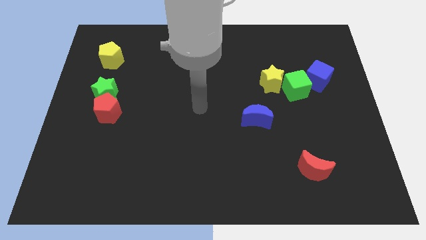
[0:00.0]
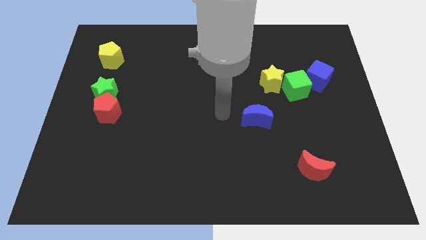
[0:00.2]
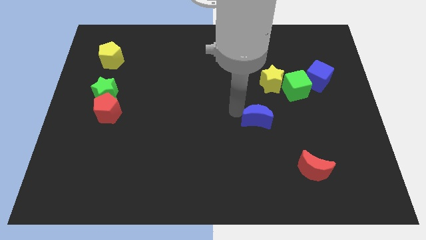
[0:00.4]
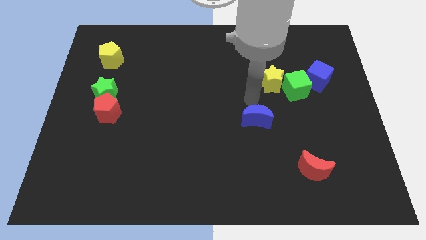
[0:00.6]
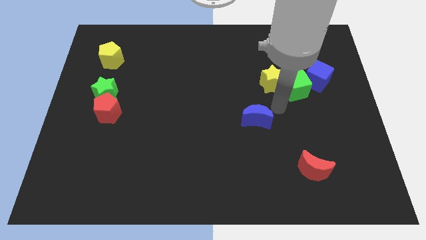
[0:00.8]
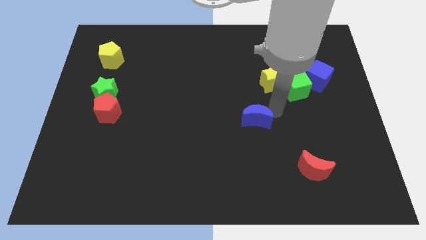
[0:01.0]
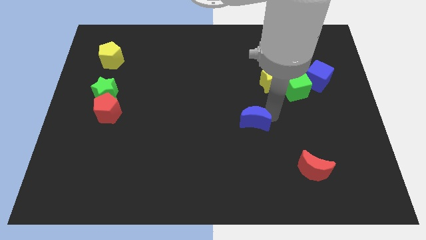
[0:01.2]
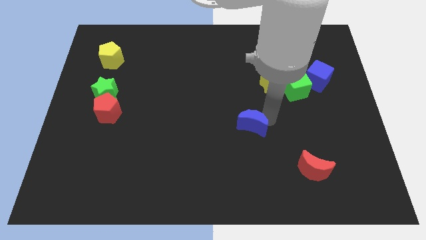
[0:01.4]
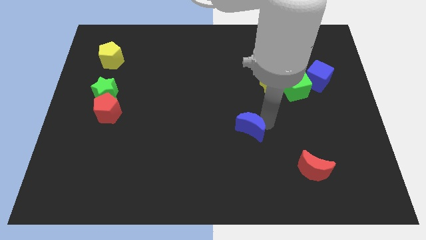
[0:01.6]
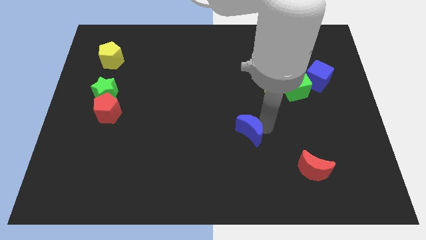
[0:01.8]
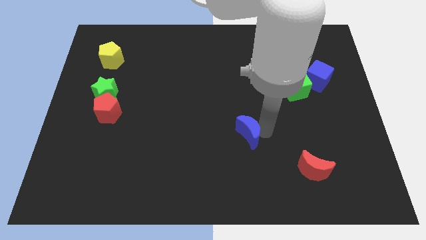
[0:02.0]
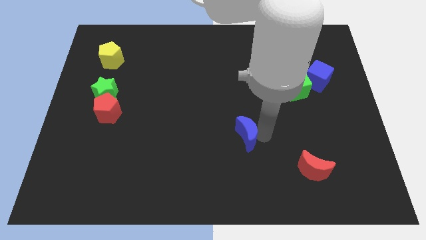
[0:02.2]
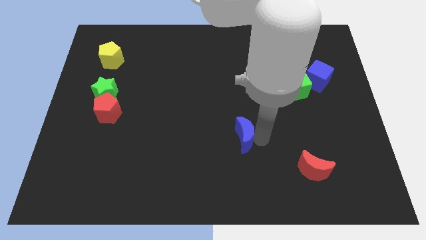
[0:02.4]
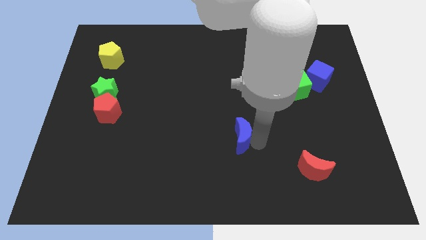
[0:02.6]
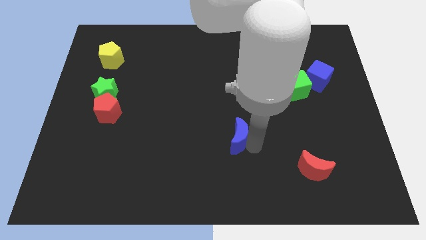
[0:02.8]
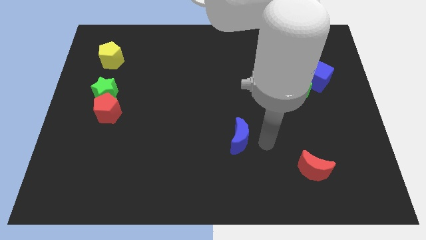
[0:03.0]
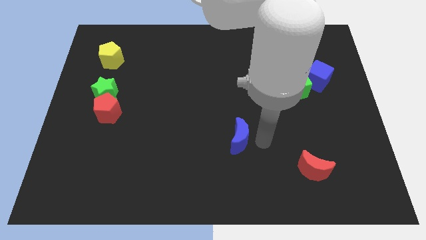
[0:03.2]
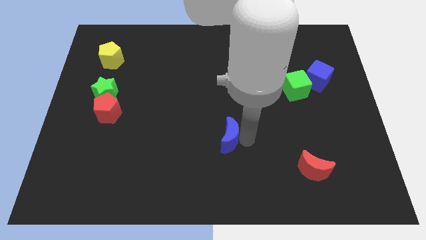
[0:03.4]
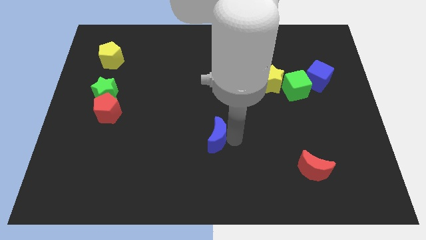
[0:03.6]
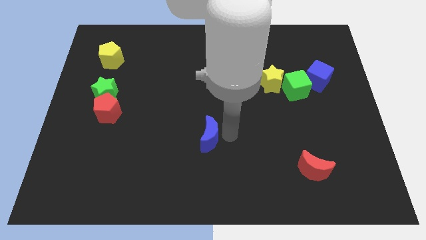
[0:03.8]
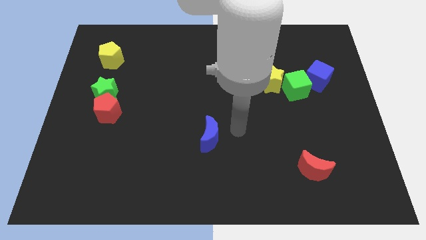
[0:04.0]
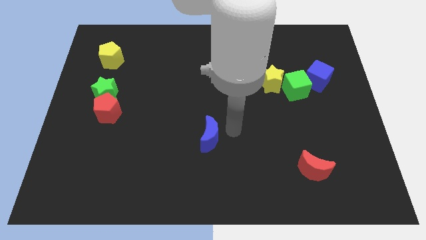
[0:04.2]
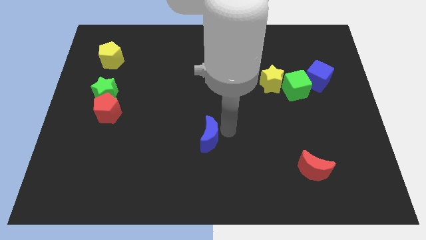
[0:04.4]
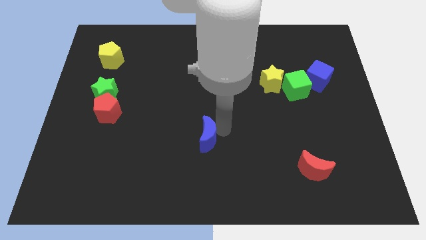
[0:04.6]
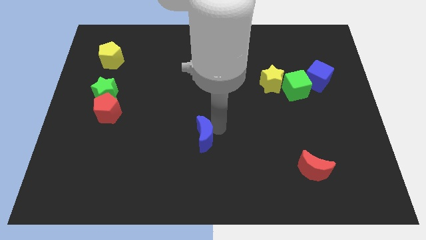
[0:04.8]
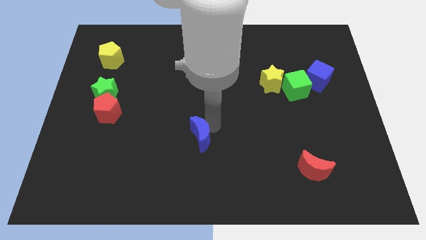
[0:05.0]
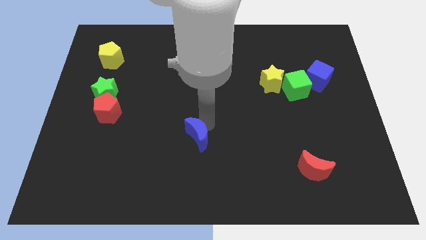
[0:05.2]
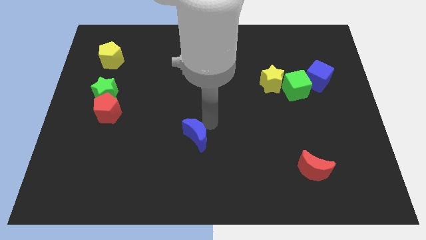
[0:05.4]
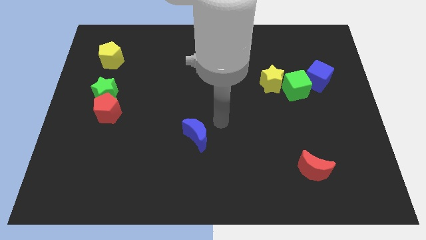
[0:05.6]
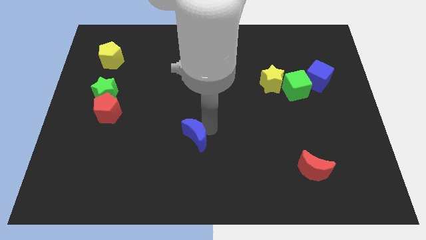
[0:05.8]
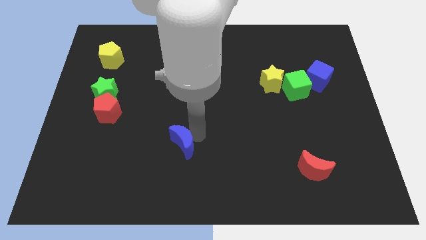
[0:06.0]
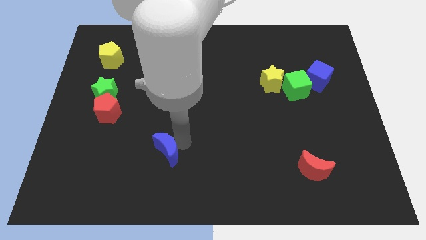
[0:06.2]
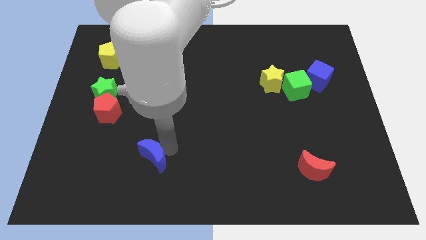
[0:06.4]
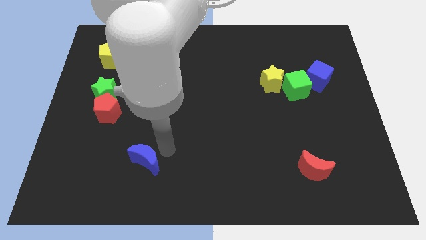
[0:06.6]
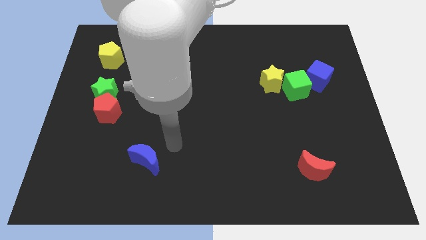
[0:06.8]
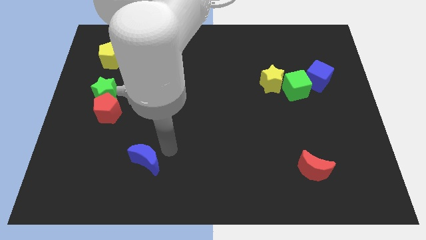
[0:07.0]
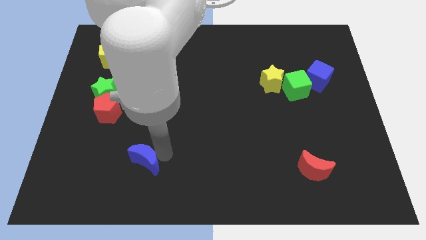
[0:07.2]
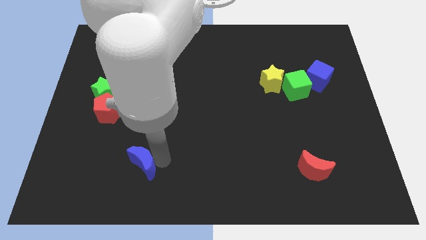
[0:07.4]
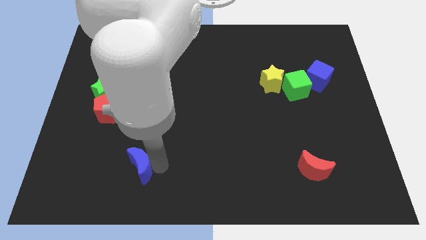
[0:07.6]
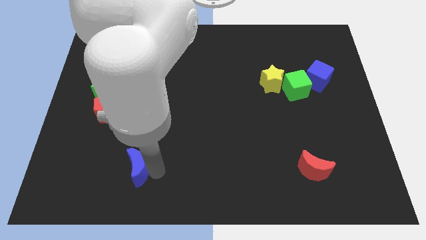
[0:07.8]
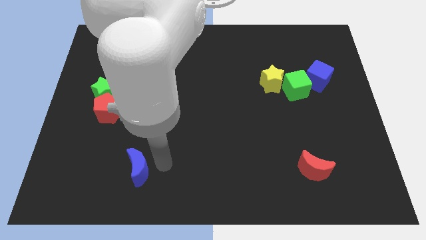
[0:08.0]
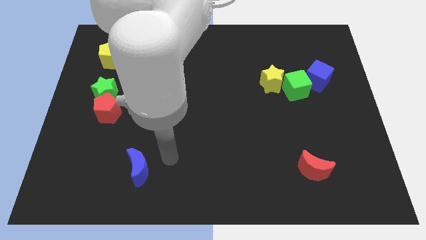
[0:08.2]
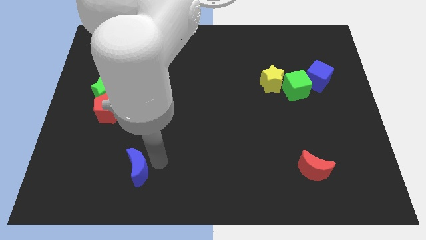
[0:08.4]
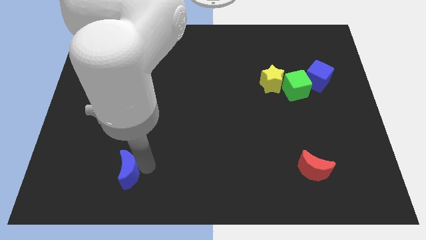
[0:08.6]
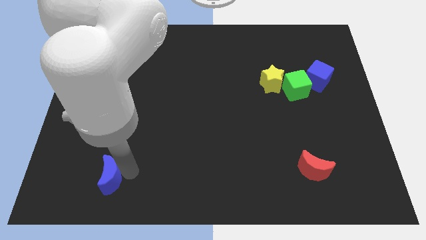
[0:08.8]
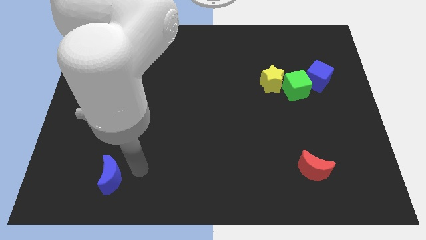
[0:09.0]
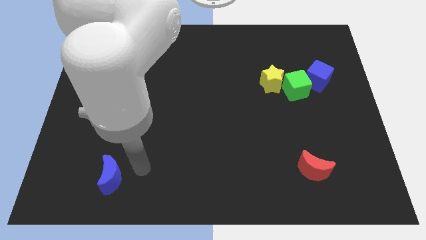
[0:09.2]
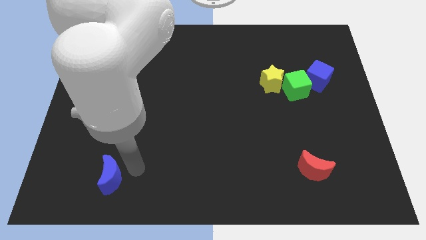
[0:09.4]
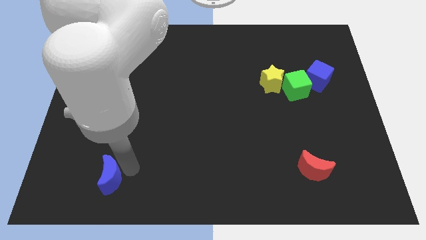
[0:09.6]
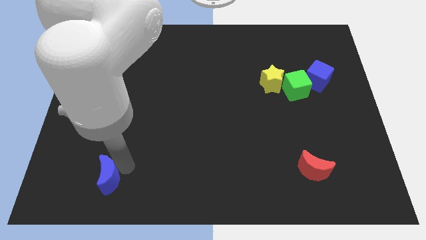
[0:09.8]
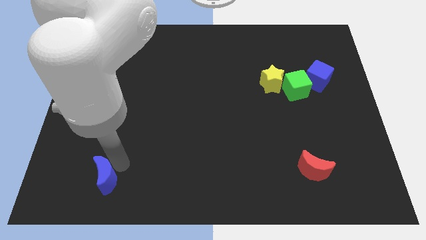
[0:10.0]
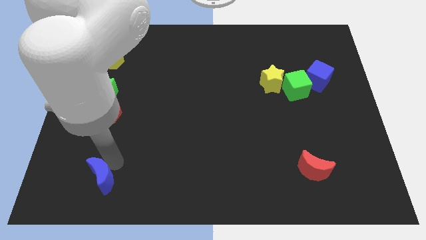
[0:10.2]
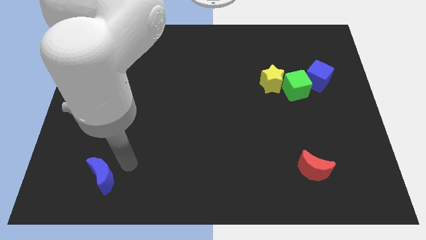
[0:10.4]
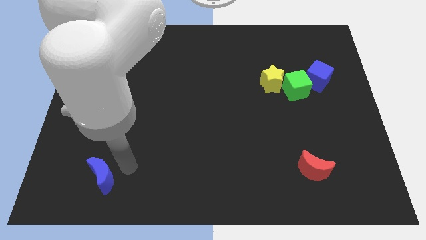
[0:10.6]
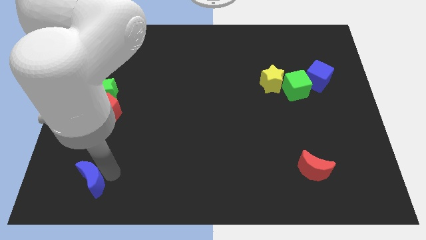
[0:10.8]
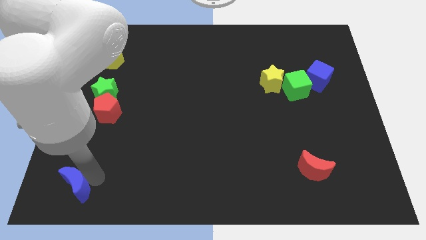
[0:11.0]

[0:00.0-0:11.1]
push the blue moon to the bottom left

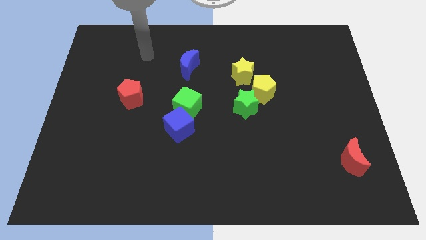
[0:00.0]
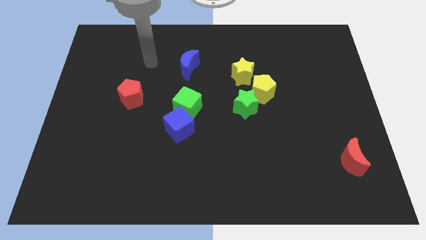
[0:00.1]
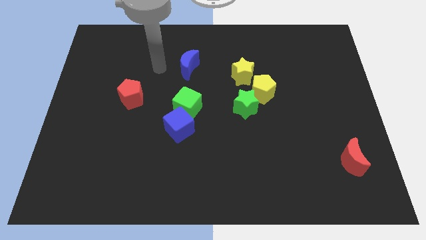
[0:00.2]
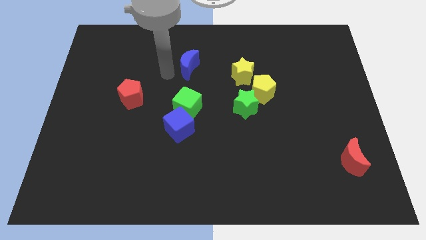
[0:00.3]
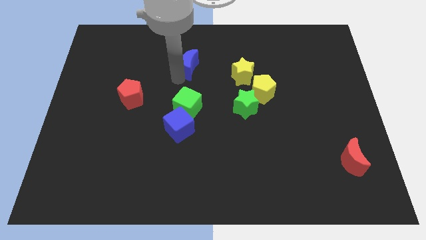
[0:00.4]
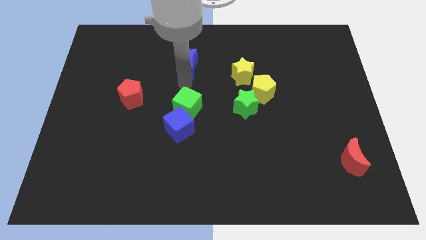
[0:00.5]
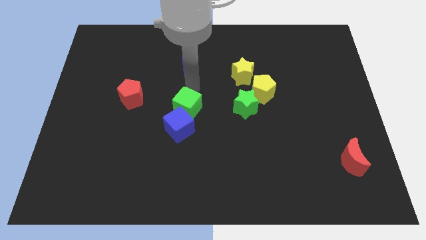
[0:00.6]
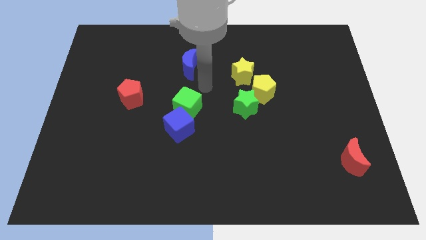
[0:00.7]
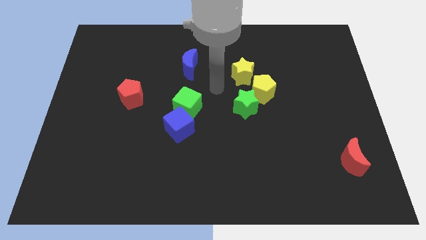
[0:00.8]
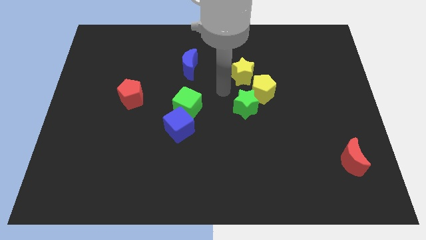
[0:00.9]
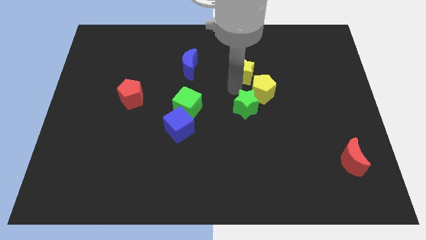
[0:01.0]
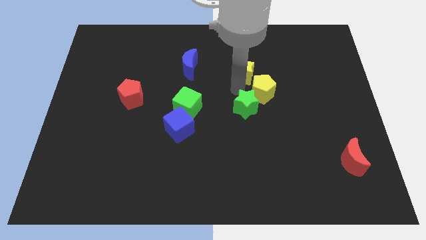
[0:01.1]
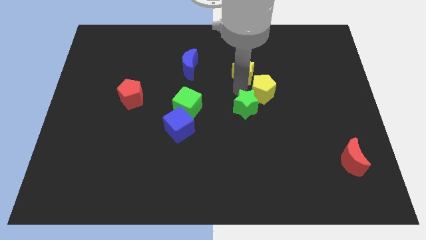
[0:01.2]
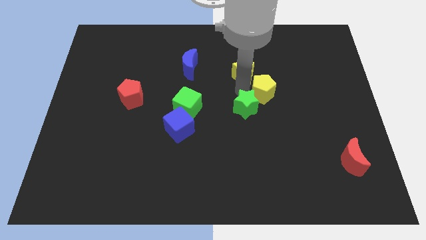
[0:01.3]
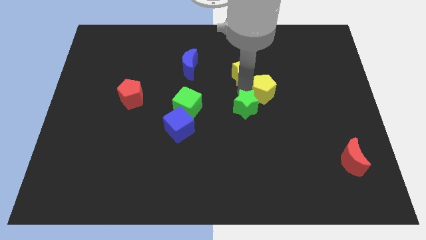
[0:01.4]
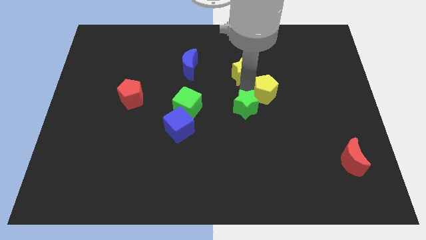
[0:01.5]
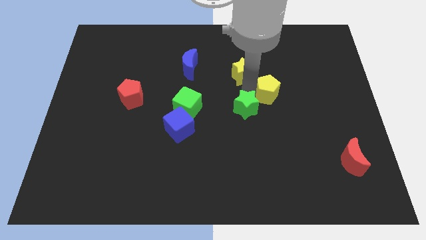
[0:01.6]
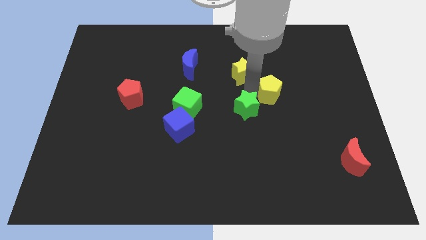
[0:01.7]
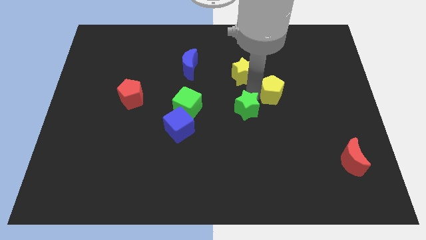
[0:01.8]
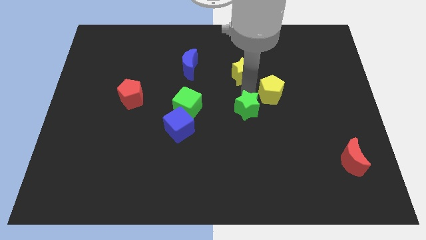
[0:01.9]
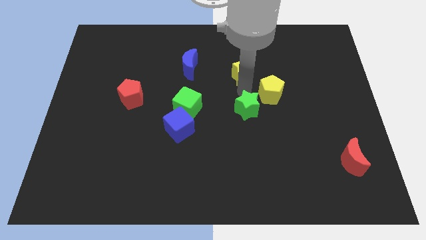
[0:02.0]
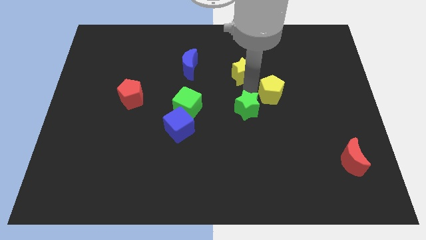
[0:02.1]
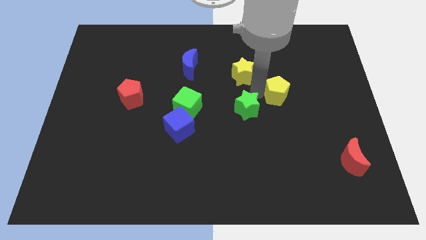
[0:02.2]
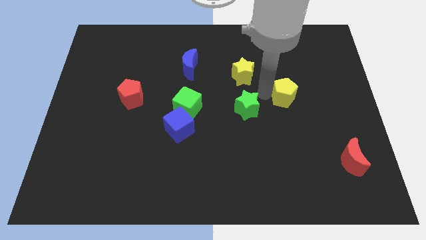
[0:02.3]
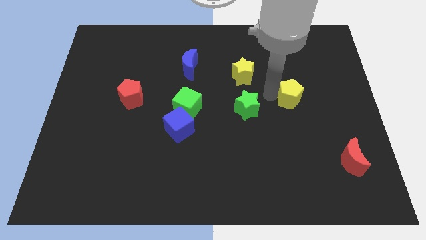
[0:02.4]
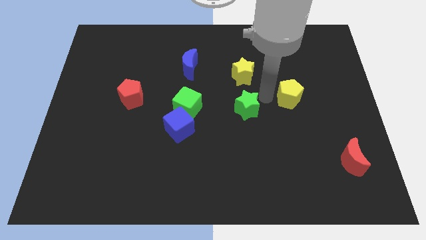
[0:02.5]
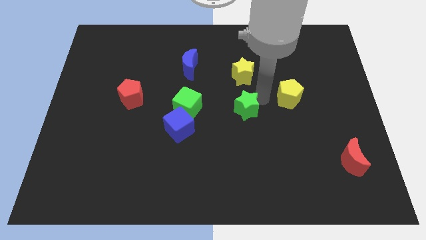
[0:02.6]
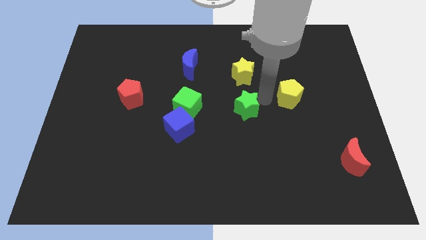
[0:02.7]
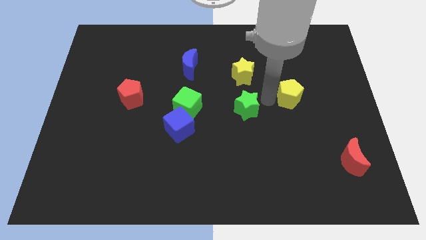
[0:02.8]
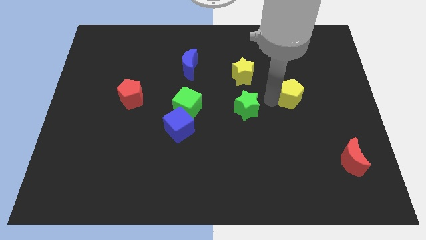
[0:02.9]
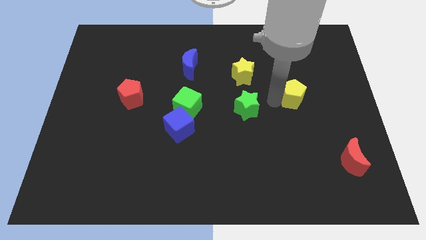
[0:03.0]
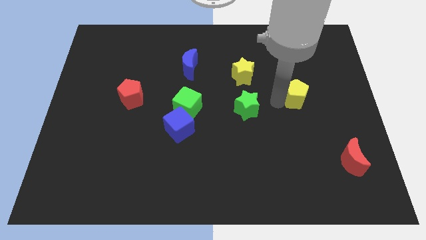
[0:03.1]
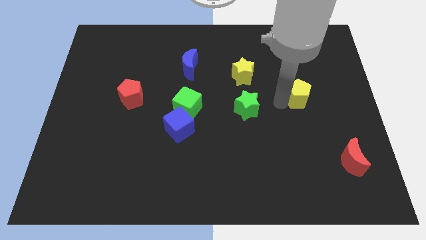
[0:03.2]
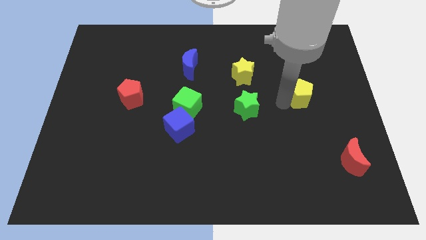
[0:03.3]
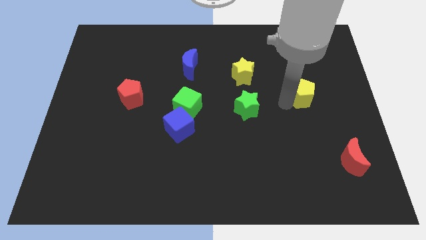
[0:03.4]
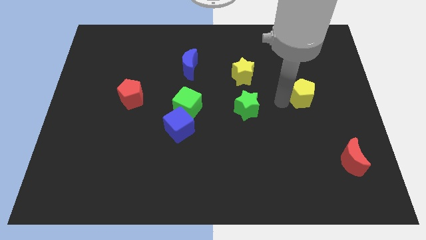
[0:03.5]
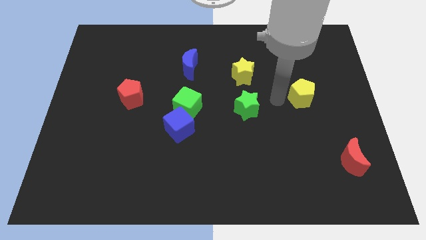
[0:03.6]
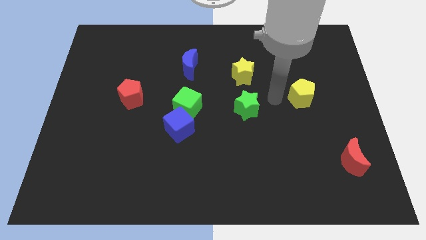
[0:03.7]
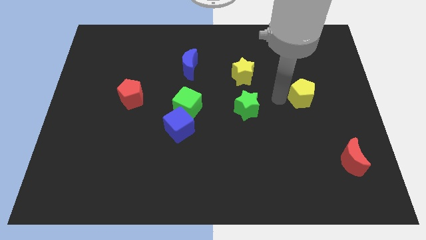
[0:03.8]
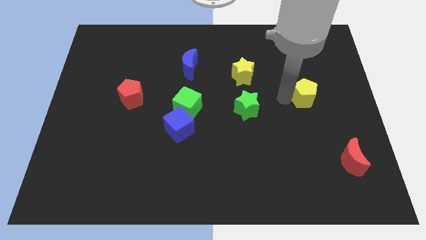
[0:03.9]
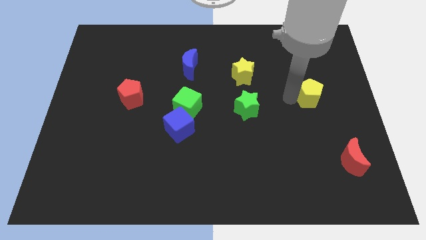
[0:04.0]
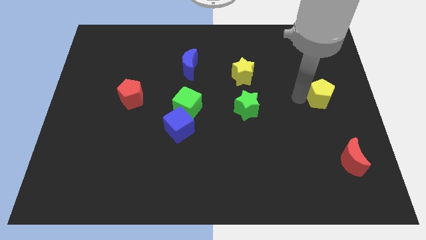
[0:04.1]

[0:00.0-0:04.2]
push the yellow pentagon to the right side of the board
